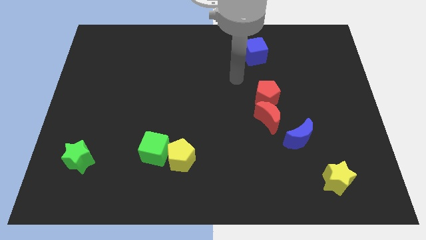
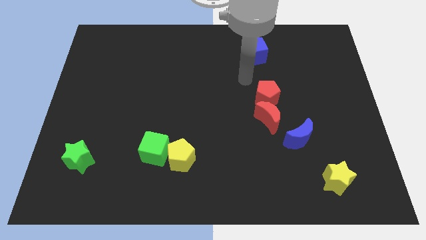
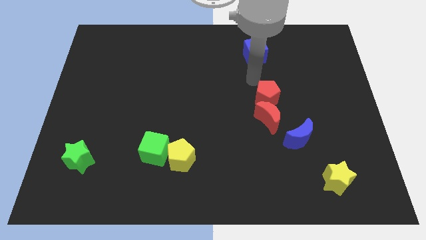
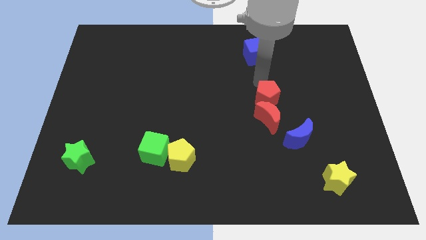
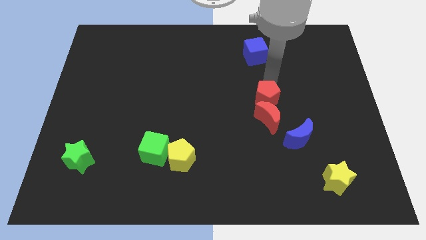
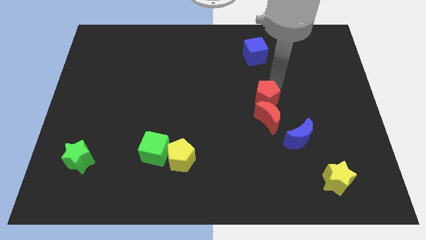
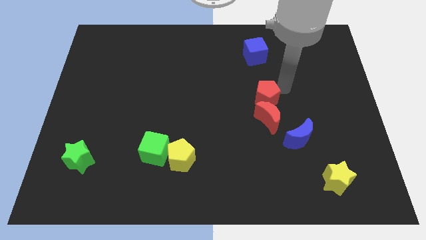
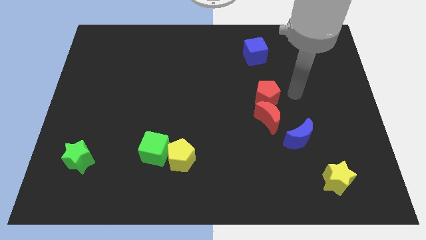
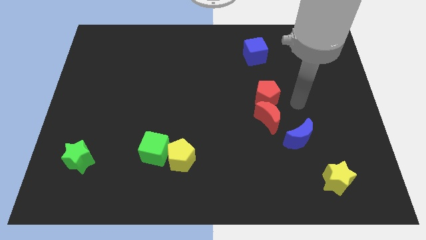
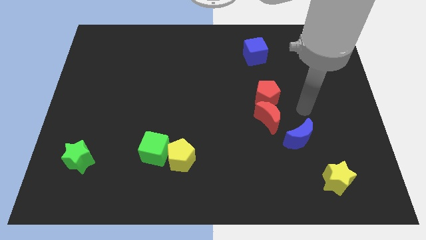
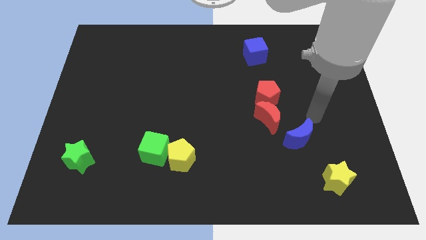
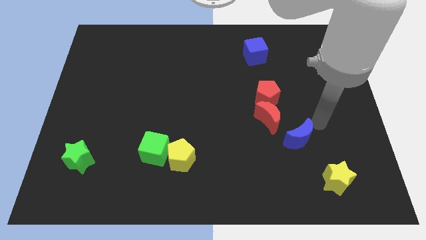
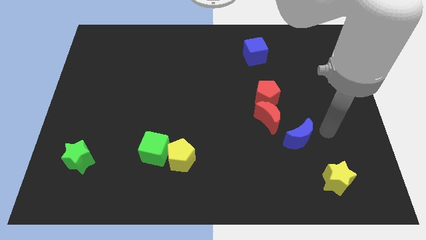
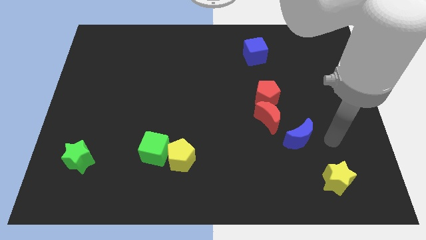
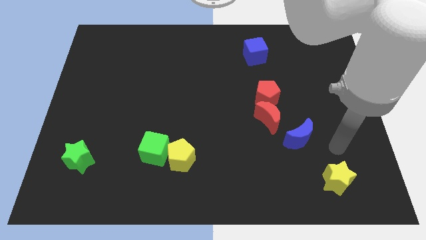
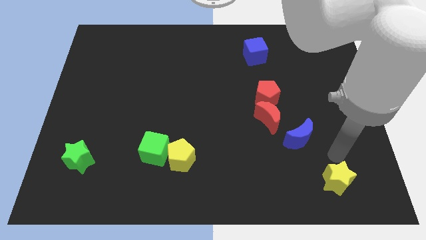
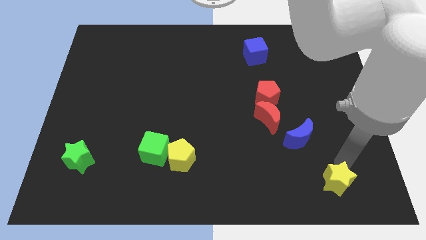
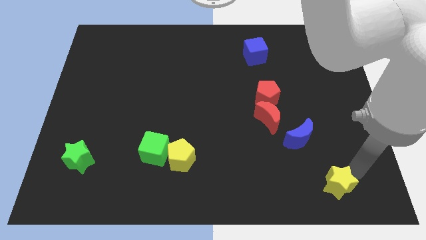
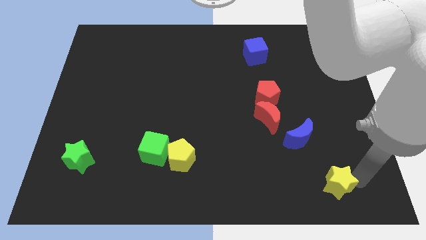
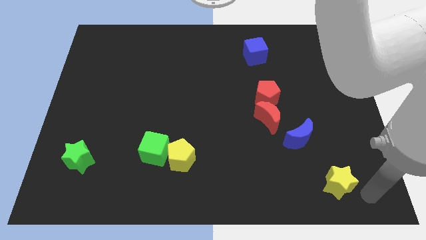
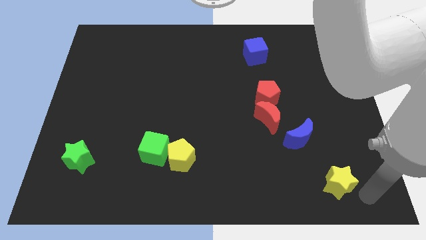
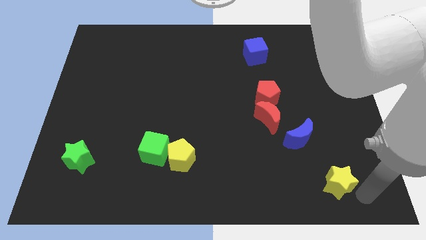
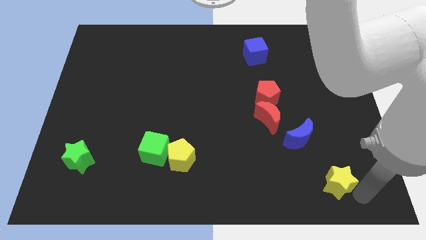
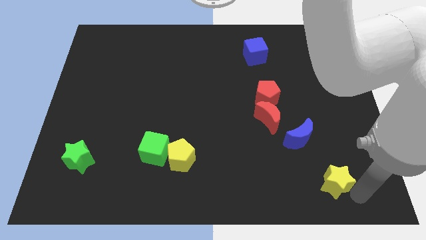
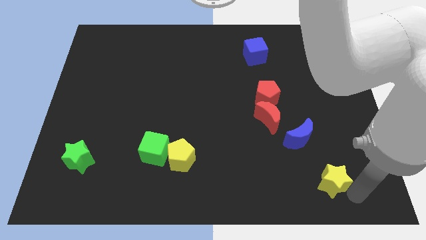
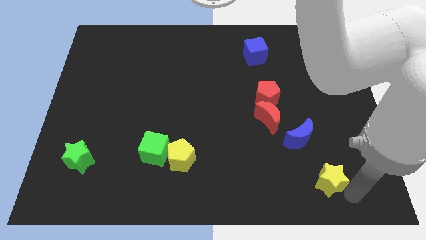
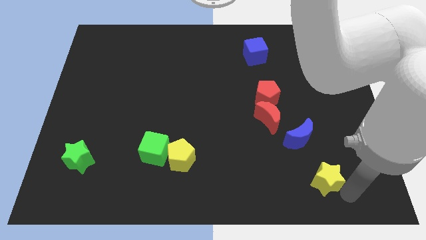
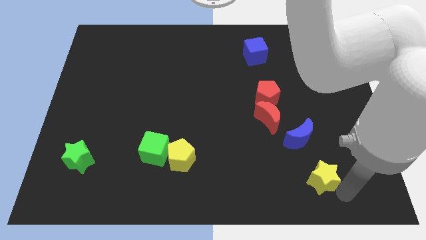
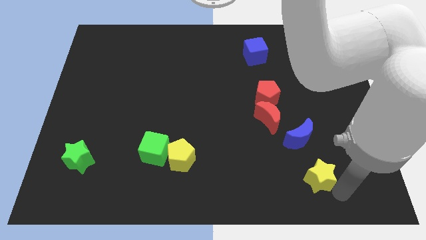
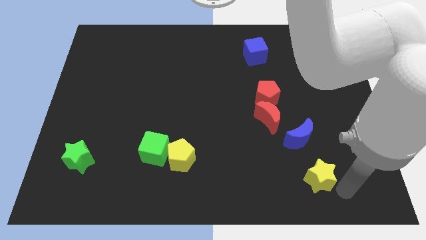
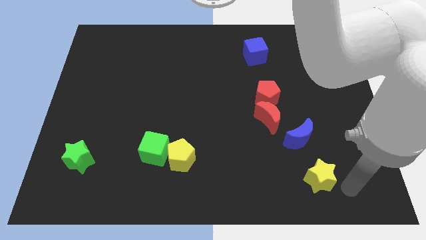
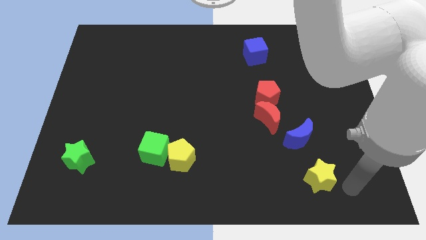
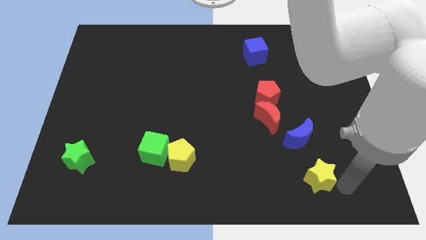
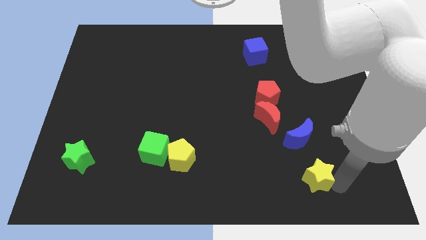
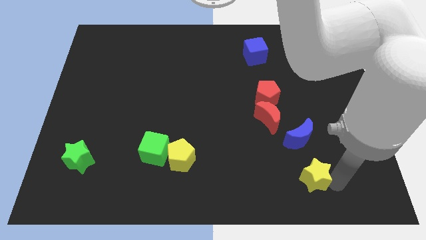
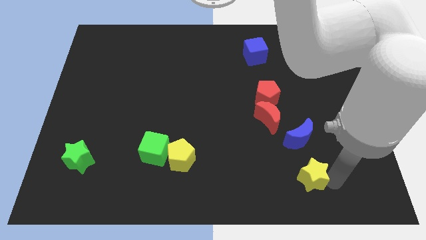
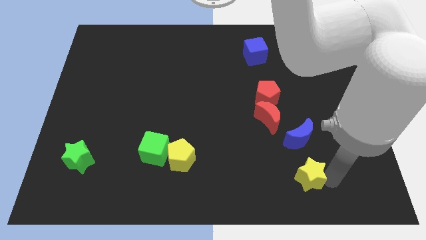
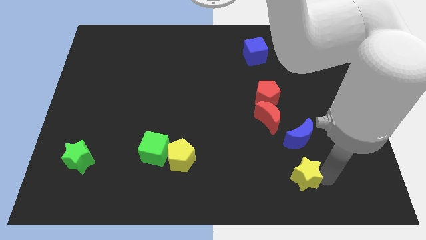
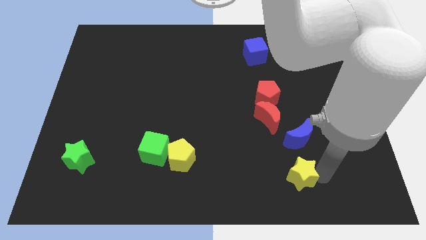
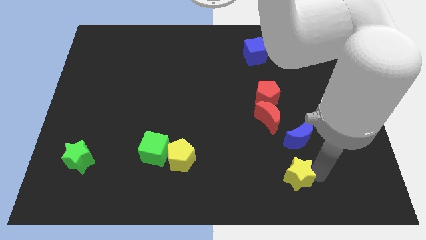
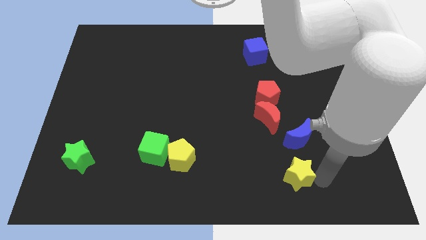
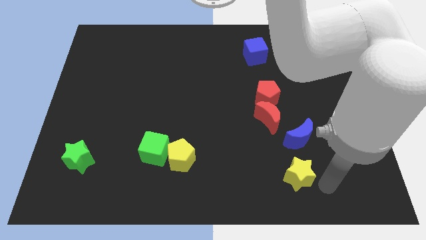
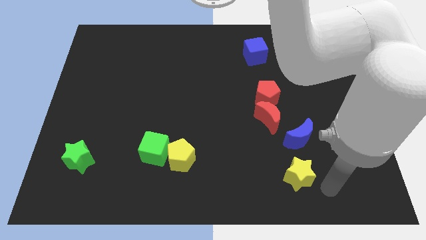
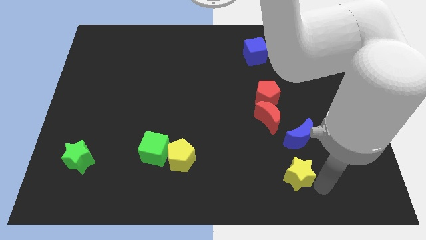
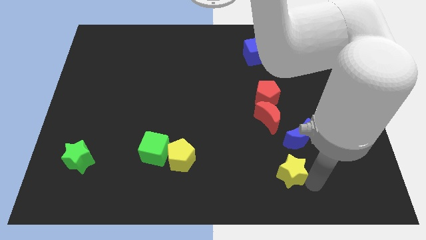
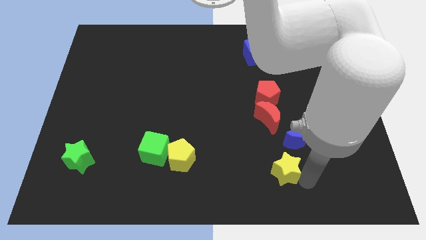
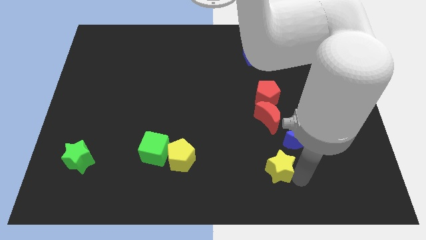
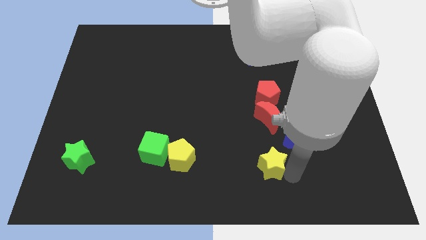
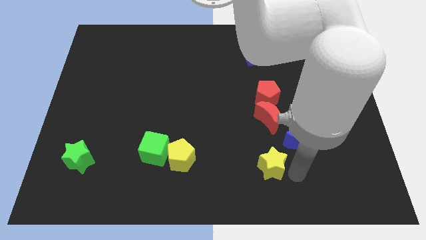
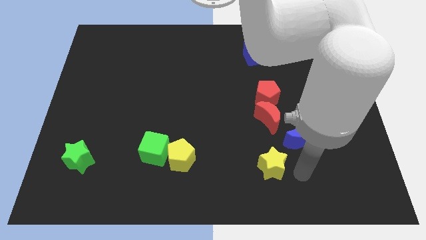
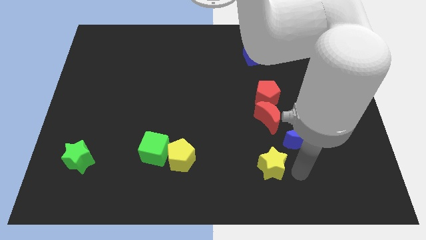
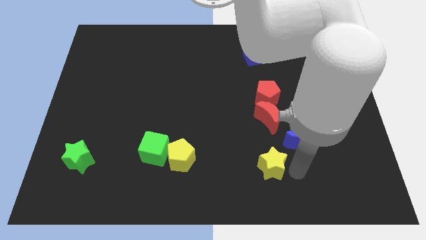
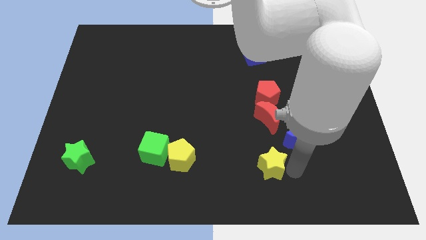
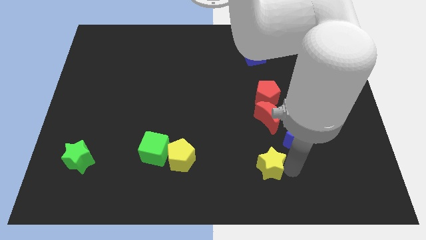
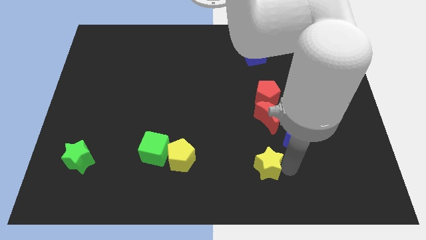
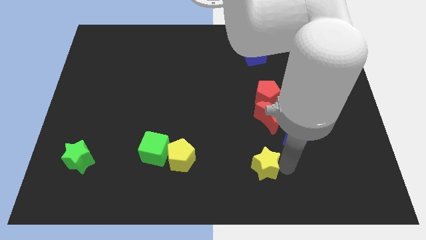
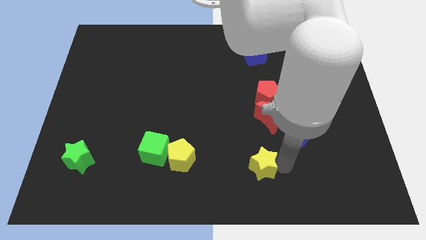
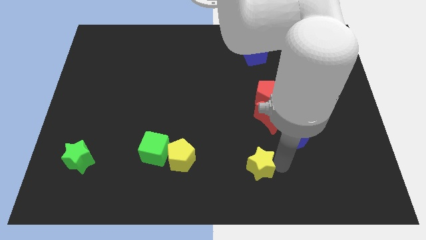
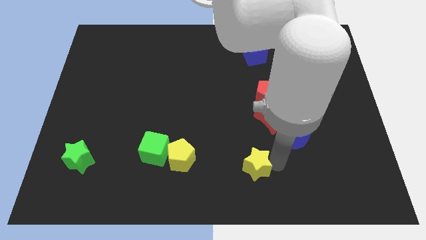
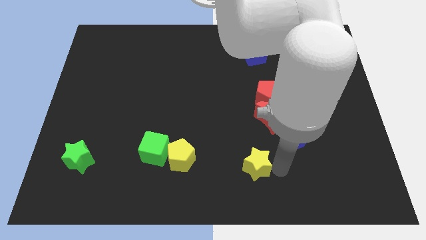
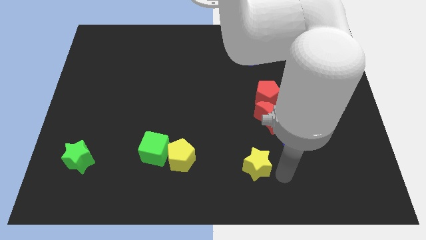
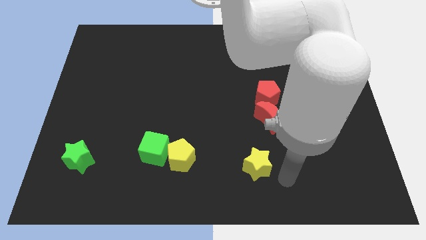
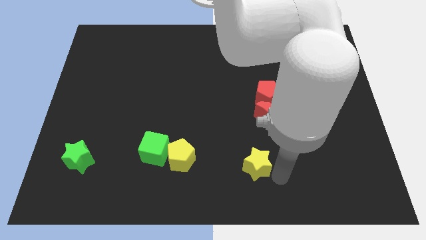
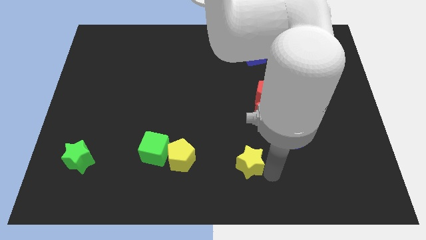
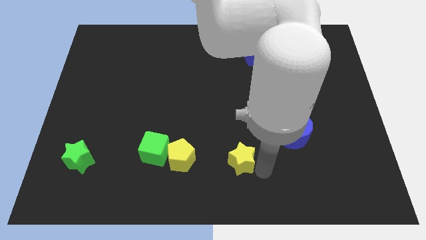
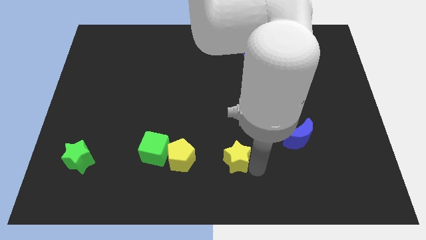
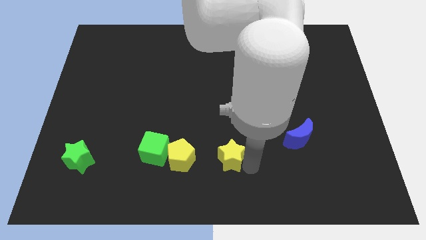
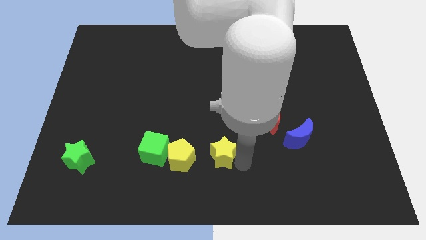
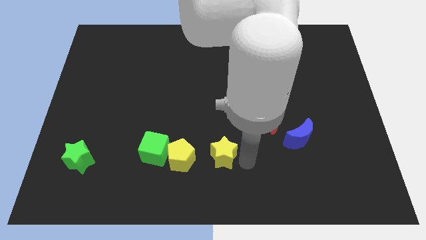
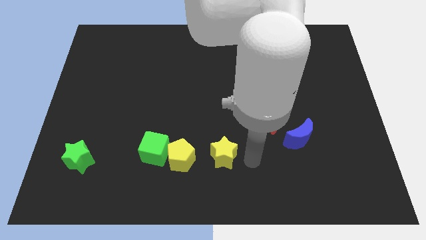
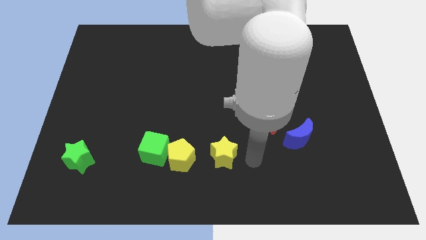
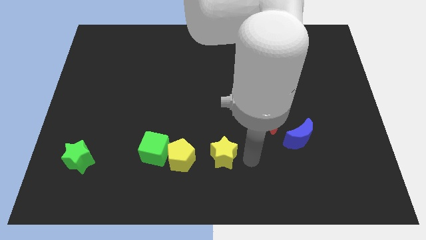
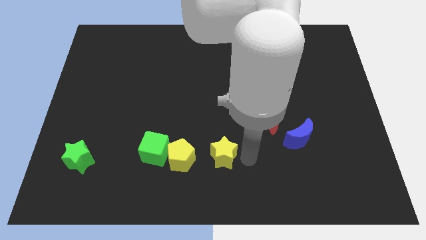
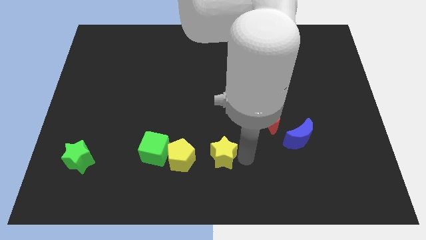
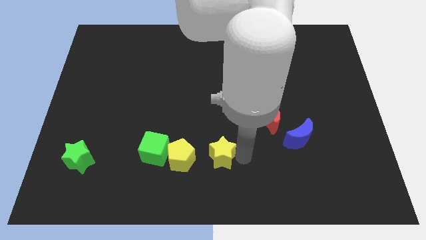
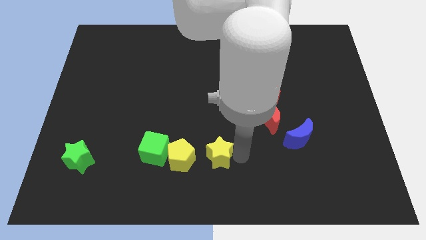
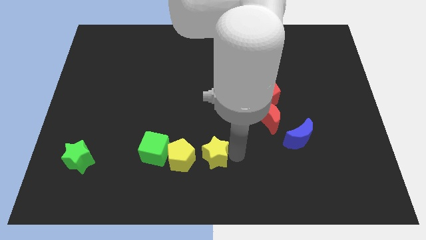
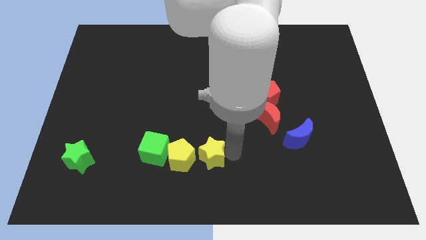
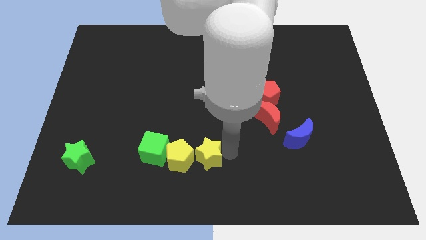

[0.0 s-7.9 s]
put the yellow star towards the yellow pentagon
